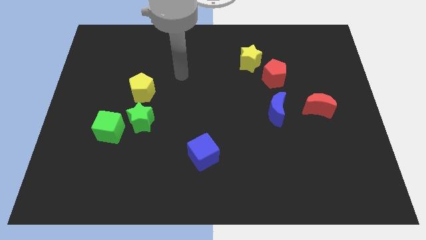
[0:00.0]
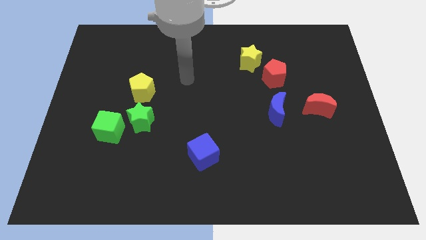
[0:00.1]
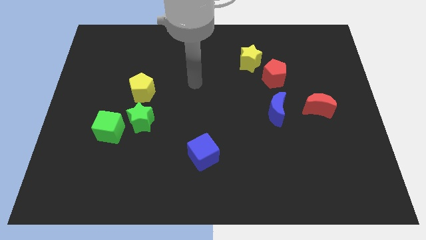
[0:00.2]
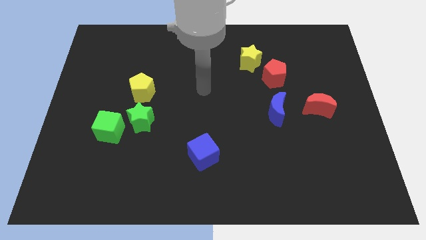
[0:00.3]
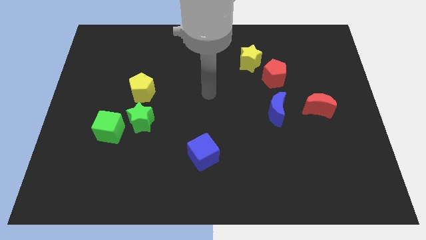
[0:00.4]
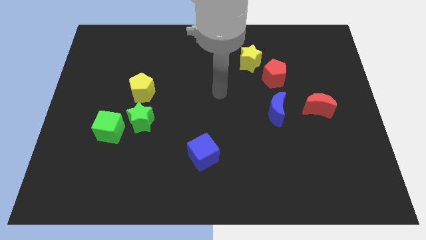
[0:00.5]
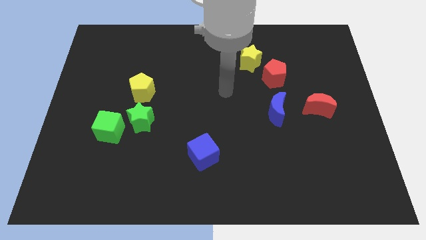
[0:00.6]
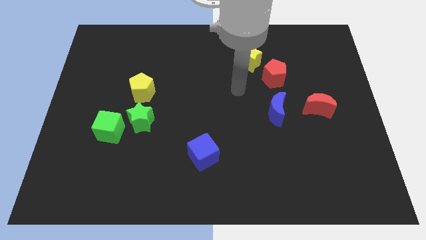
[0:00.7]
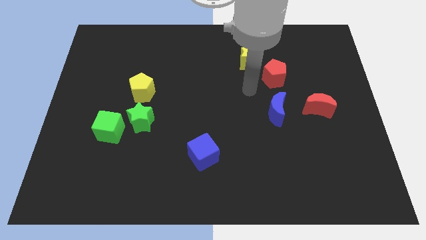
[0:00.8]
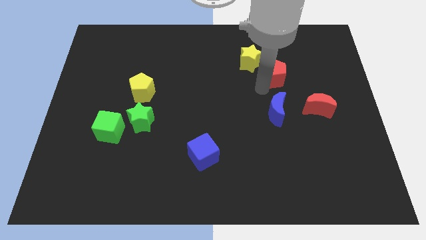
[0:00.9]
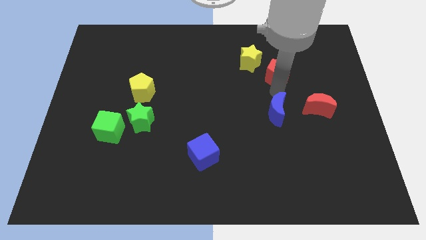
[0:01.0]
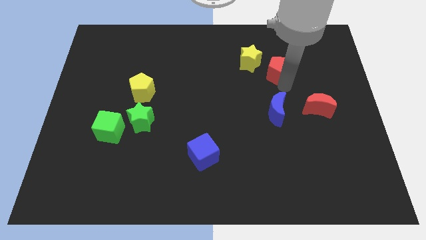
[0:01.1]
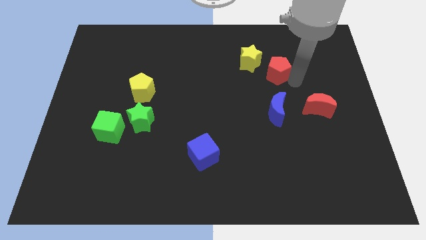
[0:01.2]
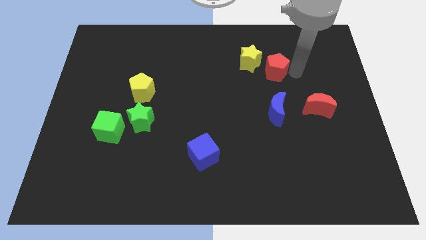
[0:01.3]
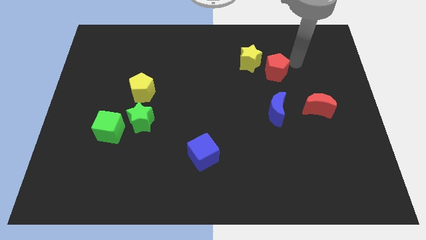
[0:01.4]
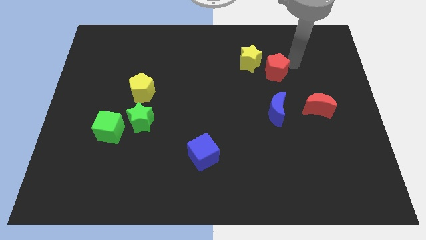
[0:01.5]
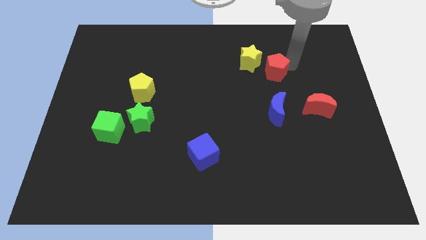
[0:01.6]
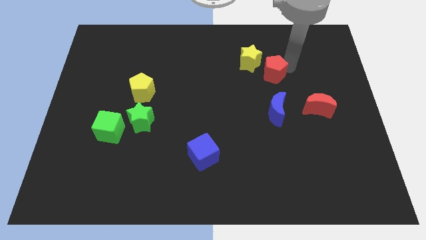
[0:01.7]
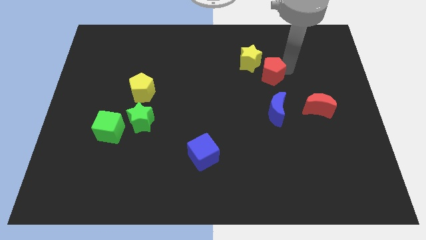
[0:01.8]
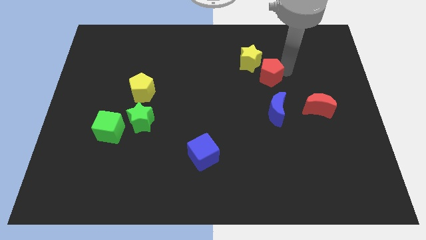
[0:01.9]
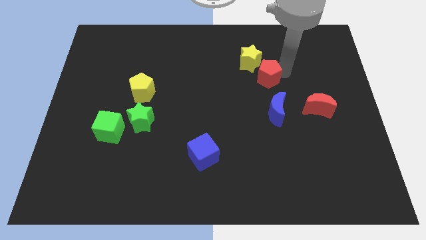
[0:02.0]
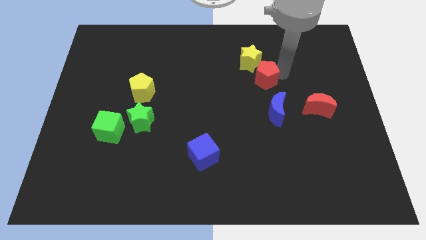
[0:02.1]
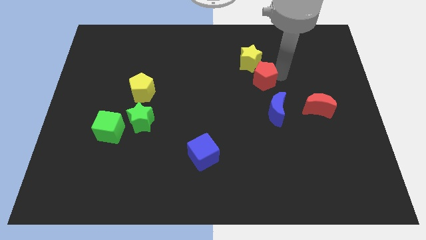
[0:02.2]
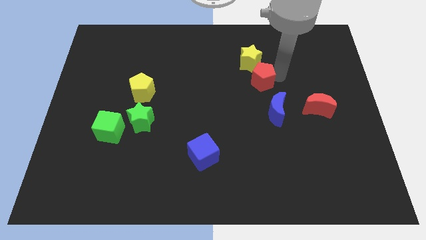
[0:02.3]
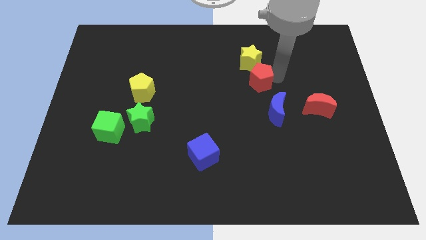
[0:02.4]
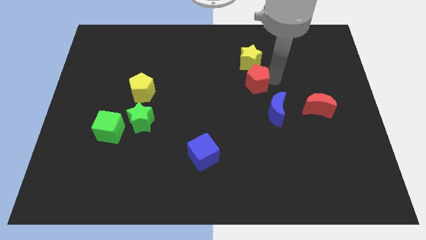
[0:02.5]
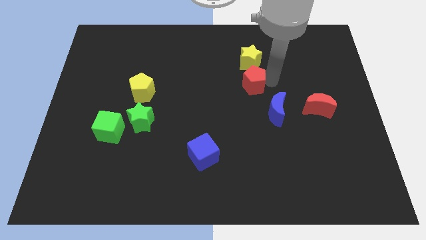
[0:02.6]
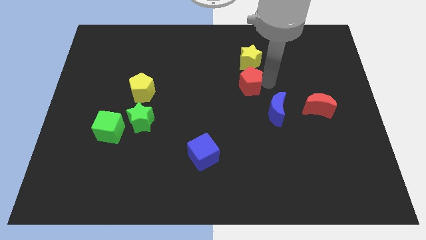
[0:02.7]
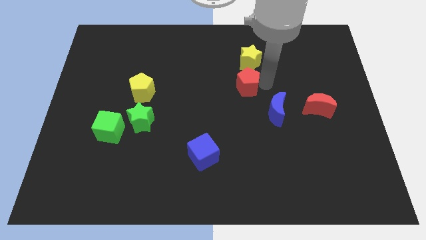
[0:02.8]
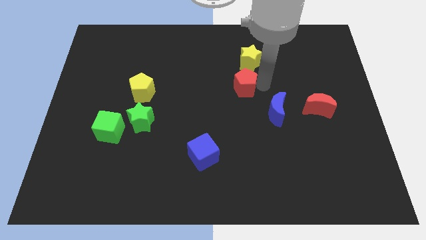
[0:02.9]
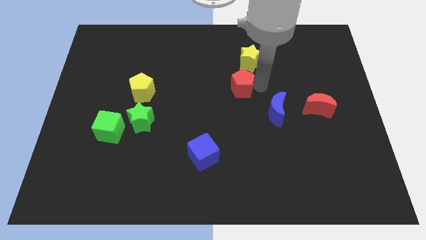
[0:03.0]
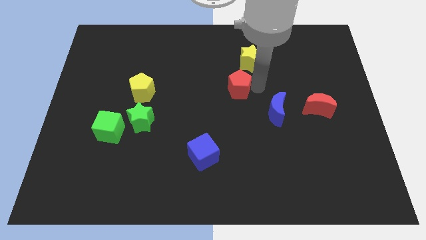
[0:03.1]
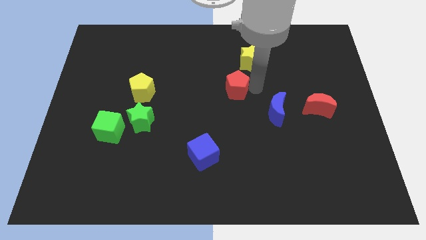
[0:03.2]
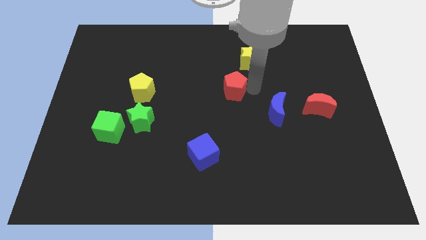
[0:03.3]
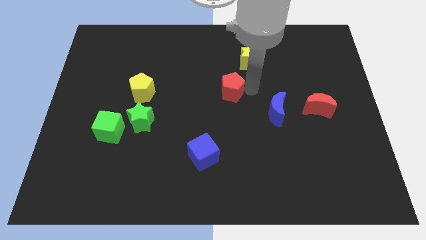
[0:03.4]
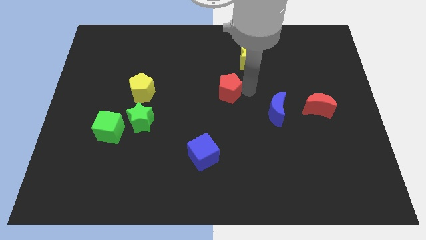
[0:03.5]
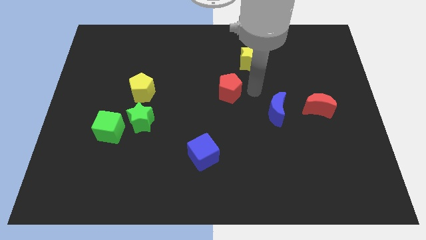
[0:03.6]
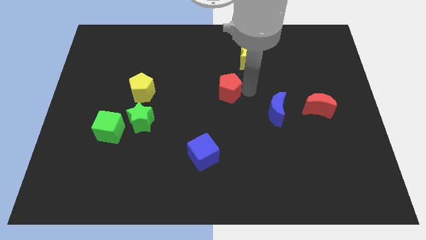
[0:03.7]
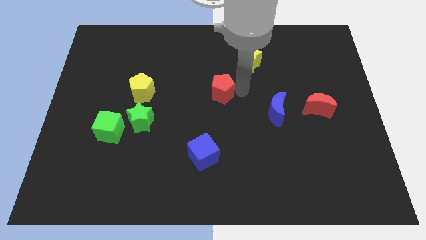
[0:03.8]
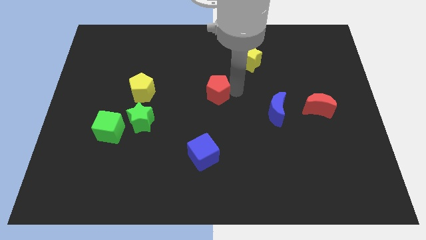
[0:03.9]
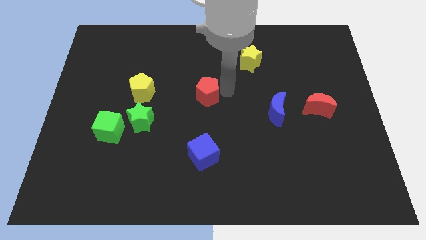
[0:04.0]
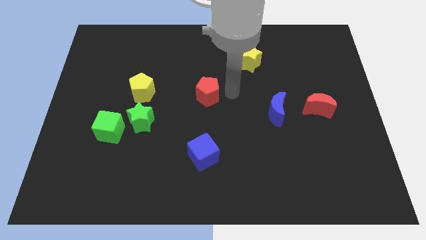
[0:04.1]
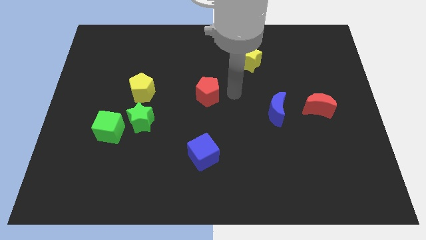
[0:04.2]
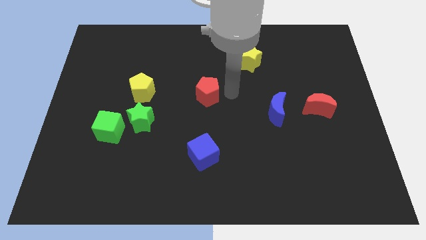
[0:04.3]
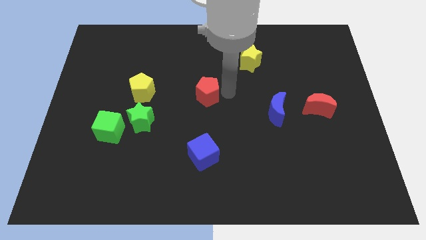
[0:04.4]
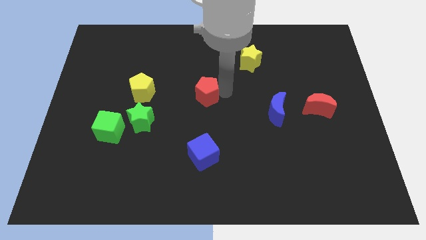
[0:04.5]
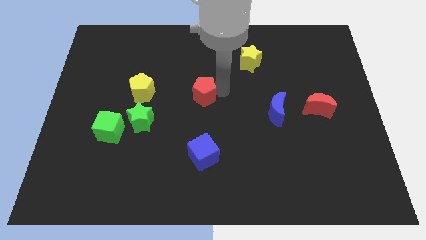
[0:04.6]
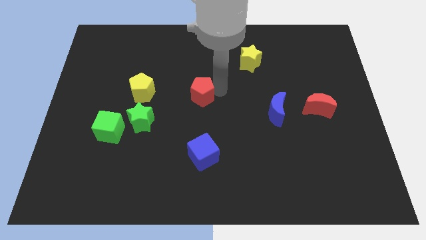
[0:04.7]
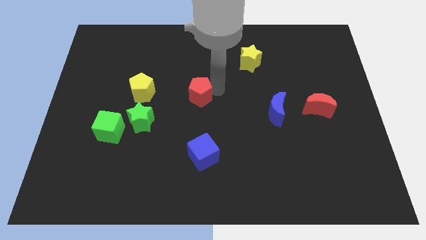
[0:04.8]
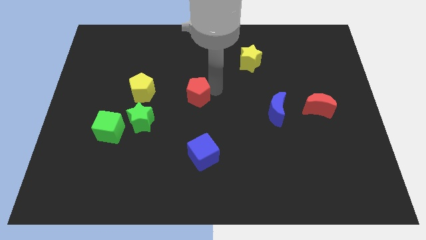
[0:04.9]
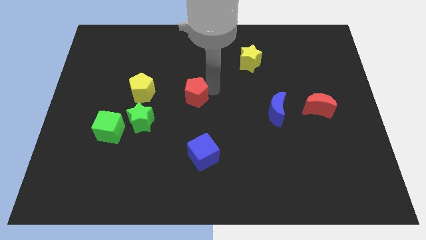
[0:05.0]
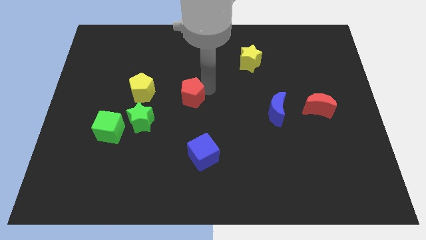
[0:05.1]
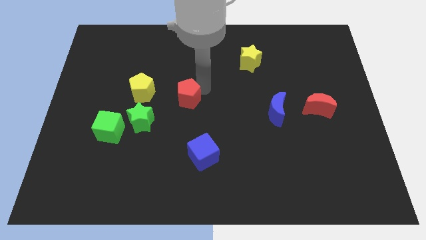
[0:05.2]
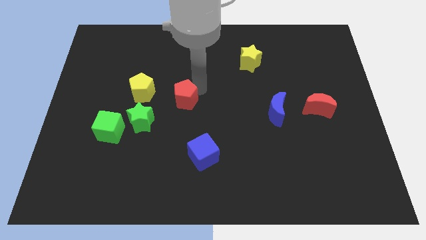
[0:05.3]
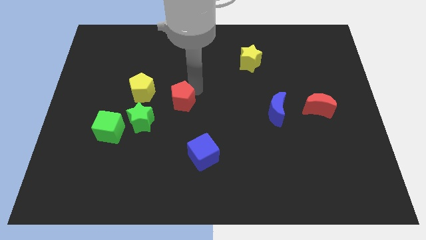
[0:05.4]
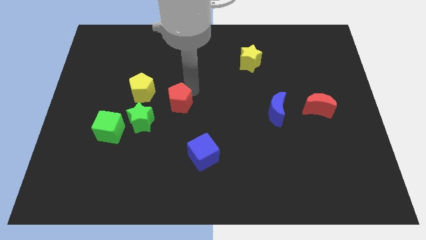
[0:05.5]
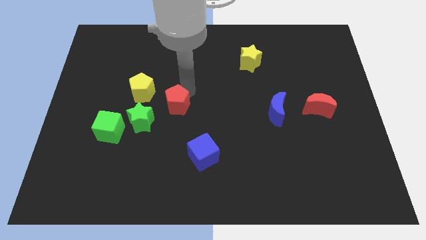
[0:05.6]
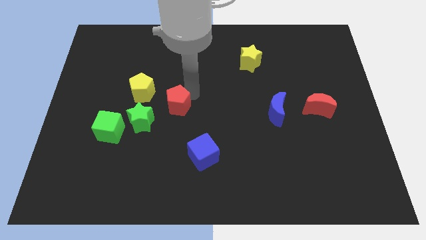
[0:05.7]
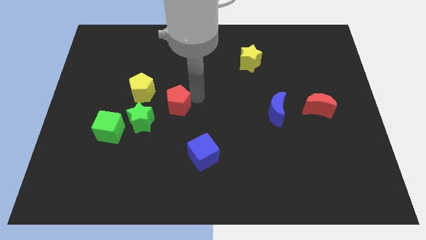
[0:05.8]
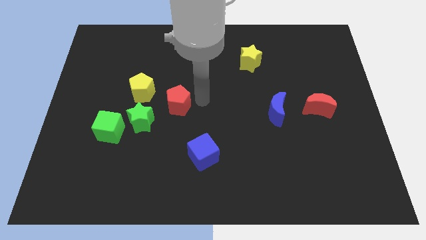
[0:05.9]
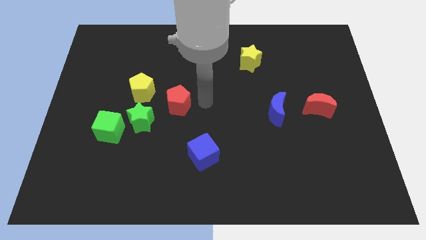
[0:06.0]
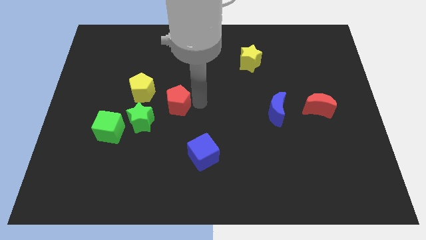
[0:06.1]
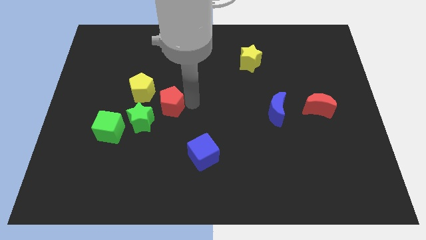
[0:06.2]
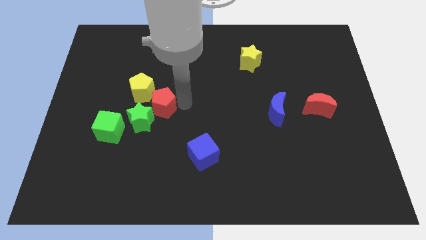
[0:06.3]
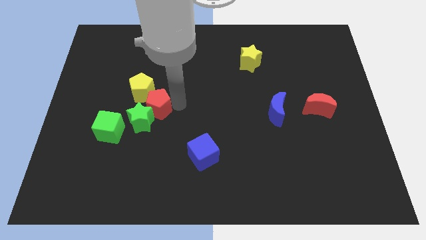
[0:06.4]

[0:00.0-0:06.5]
put the red pentagon diagonally up and to the right of the green cube

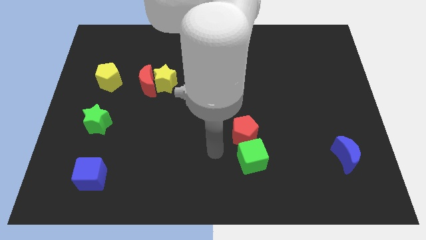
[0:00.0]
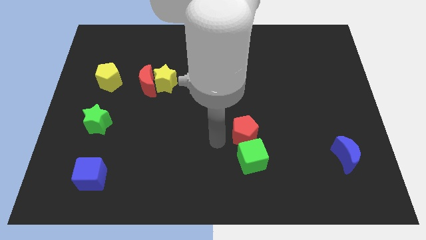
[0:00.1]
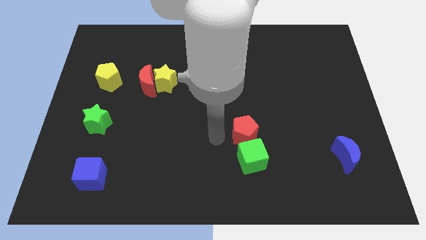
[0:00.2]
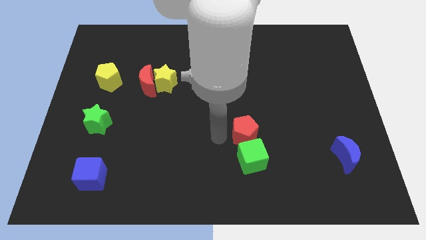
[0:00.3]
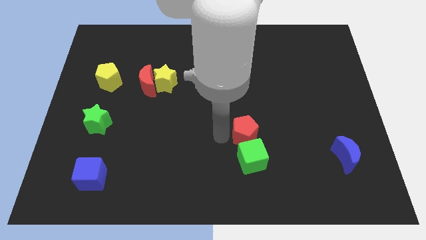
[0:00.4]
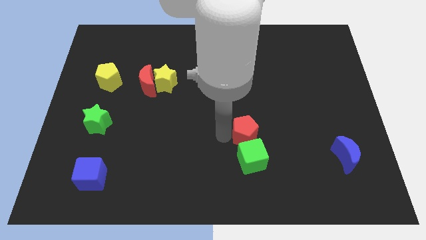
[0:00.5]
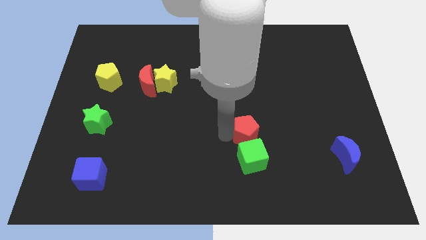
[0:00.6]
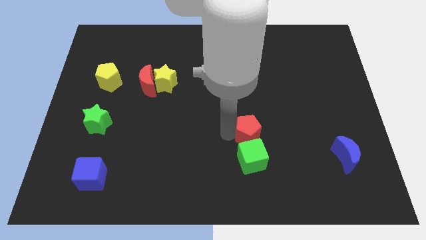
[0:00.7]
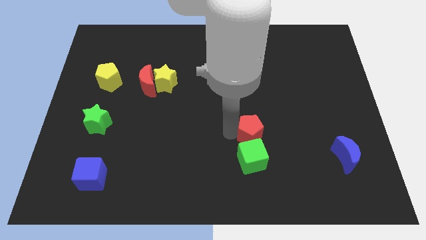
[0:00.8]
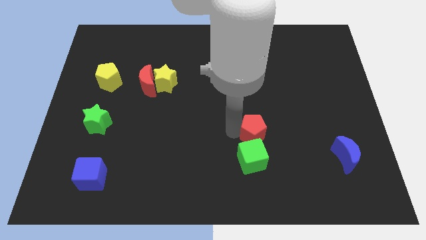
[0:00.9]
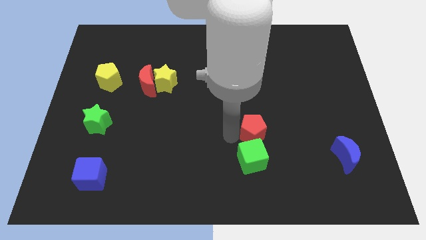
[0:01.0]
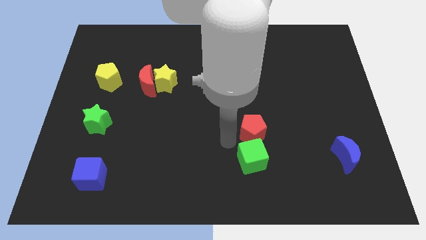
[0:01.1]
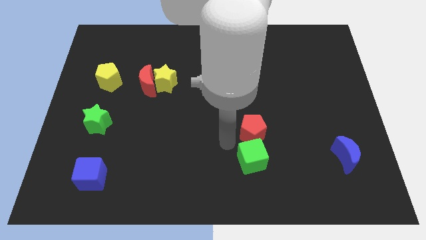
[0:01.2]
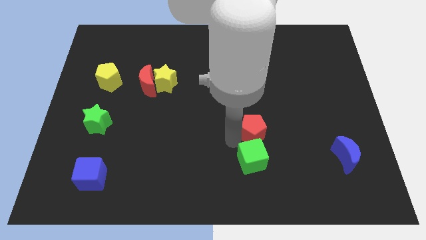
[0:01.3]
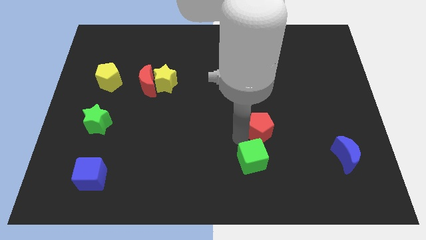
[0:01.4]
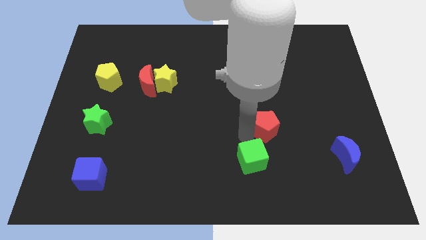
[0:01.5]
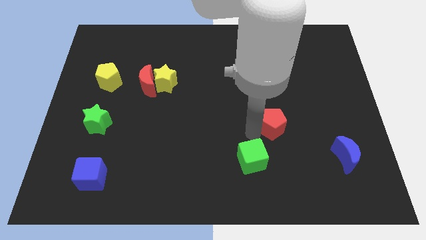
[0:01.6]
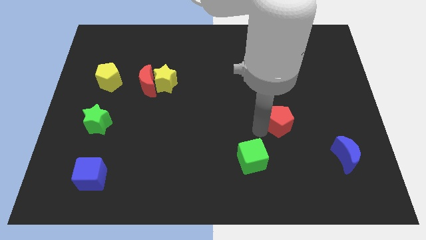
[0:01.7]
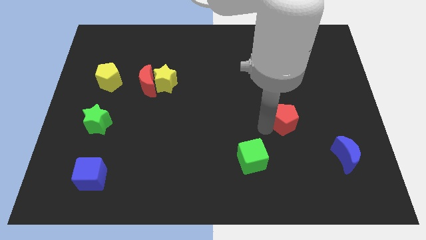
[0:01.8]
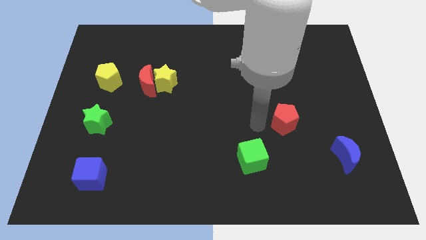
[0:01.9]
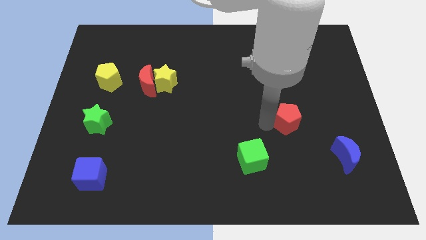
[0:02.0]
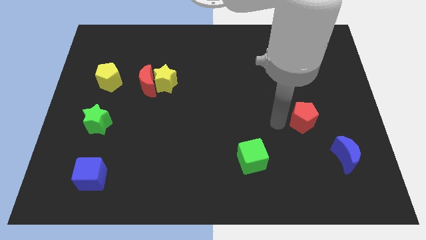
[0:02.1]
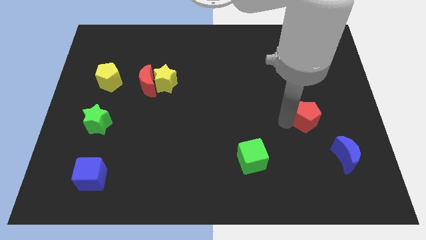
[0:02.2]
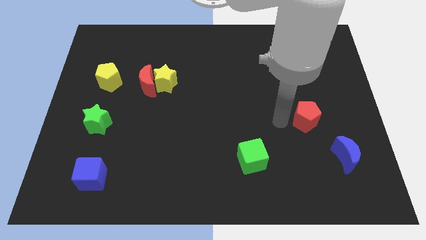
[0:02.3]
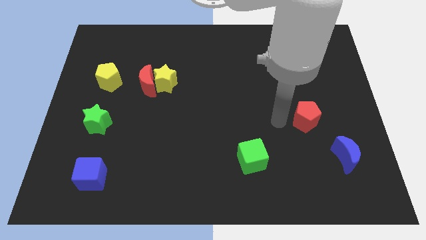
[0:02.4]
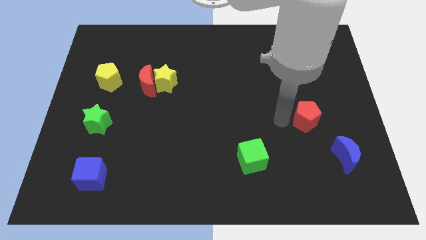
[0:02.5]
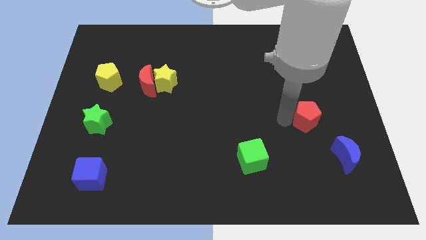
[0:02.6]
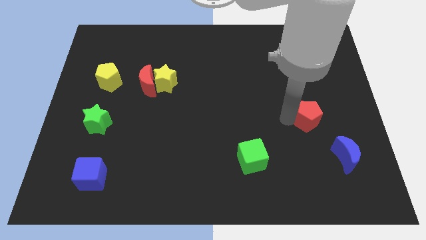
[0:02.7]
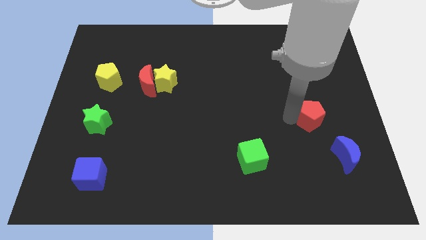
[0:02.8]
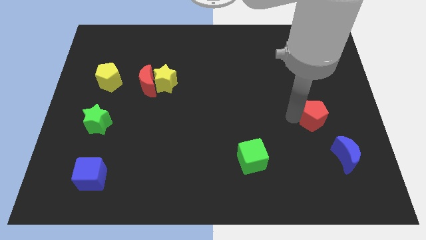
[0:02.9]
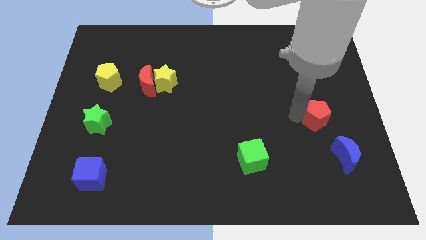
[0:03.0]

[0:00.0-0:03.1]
push the red pentagon to the top side of the blue moon
